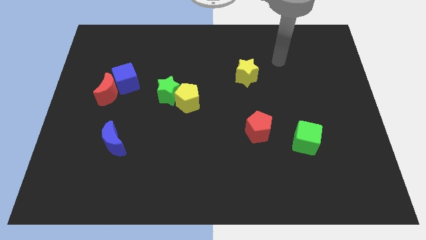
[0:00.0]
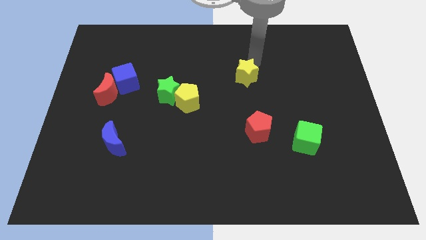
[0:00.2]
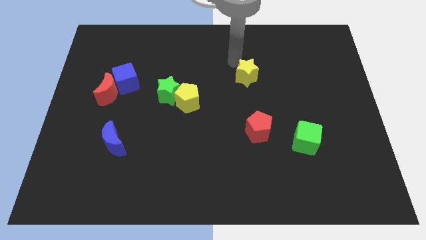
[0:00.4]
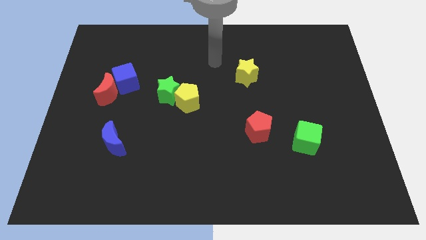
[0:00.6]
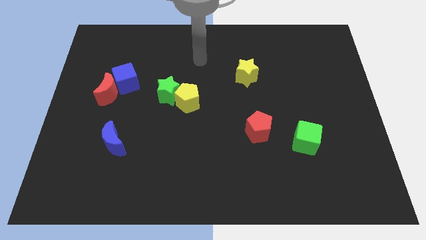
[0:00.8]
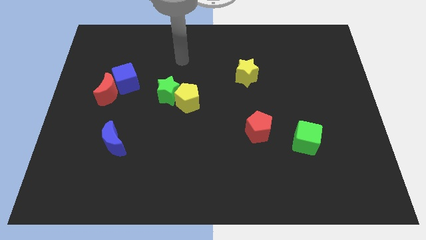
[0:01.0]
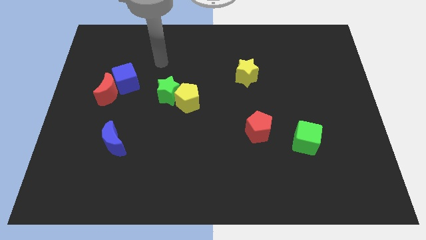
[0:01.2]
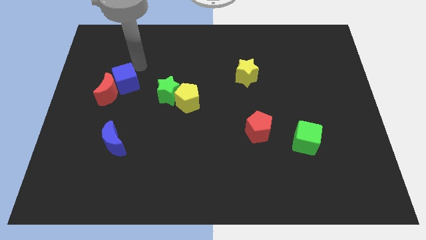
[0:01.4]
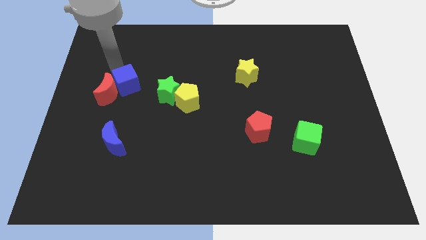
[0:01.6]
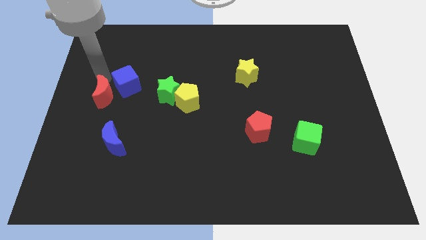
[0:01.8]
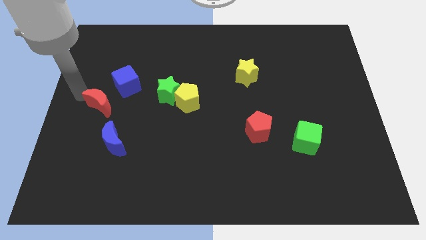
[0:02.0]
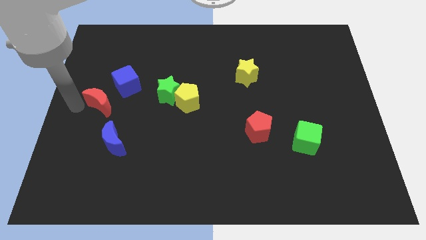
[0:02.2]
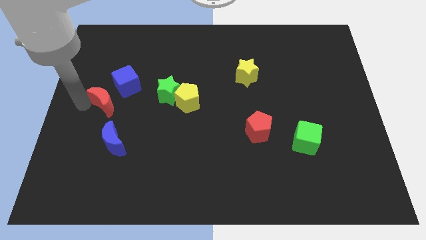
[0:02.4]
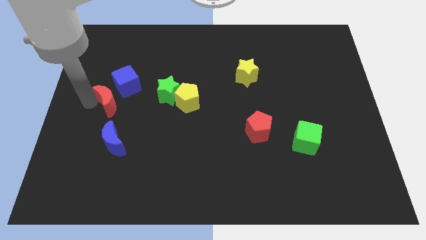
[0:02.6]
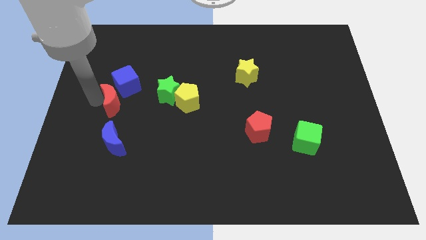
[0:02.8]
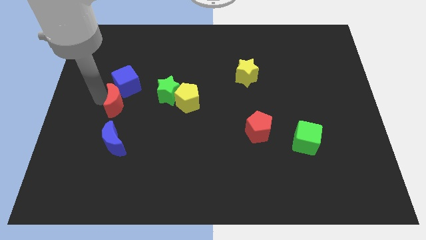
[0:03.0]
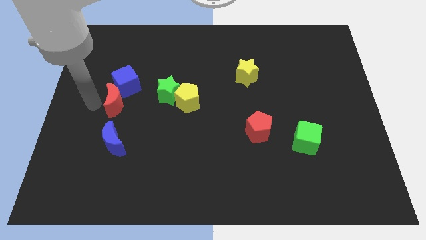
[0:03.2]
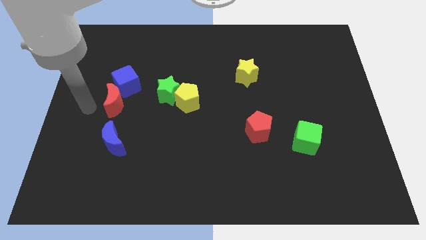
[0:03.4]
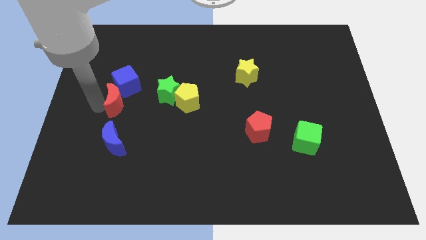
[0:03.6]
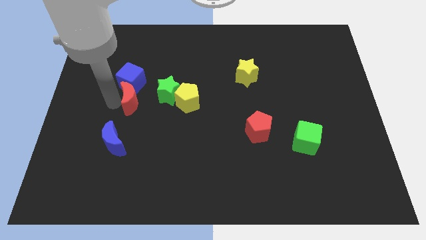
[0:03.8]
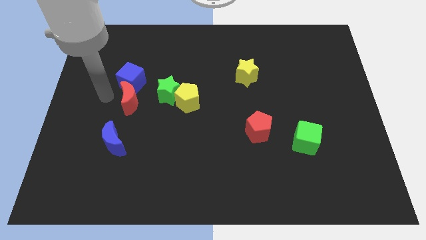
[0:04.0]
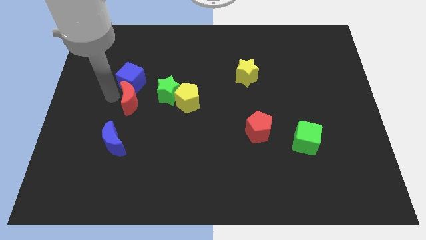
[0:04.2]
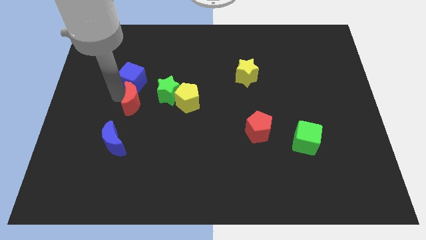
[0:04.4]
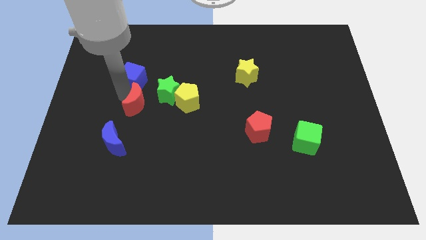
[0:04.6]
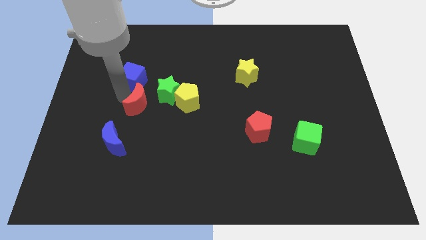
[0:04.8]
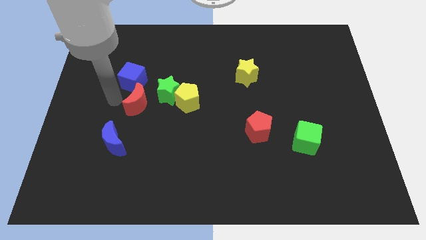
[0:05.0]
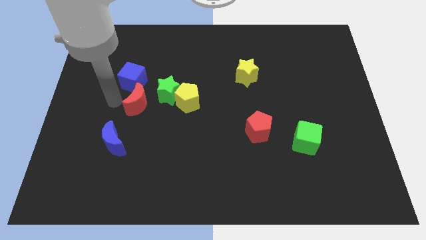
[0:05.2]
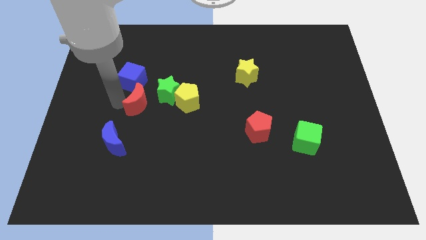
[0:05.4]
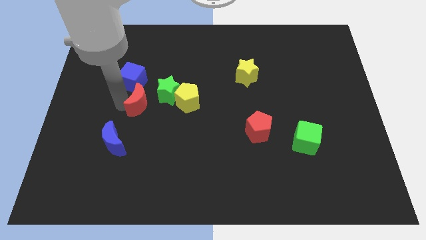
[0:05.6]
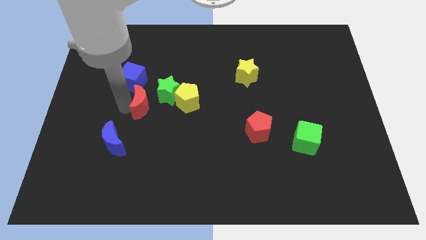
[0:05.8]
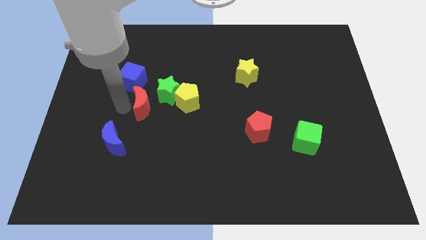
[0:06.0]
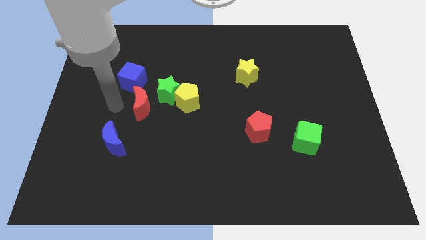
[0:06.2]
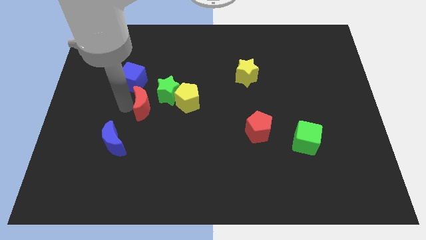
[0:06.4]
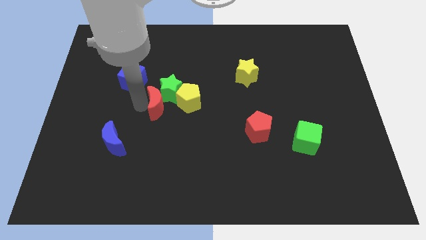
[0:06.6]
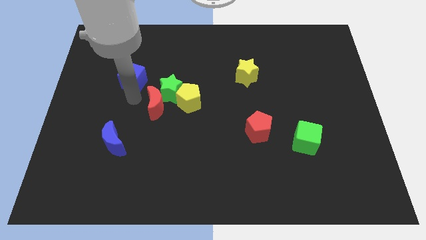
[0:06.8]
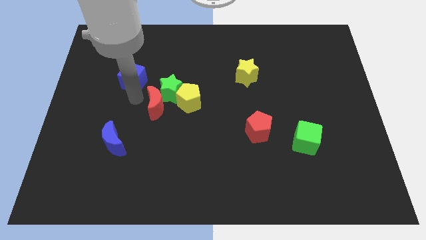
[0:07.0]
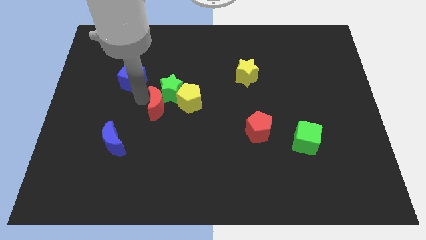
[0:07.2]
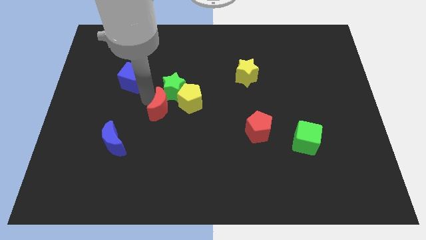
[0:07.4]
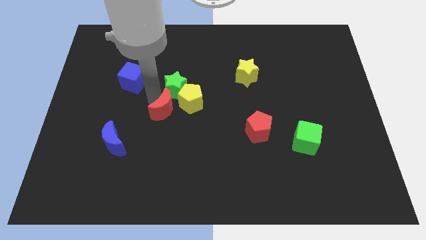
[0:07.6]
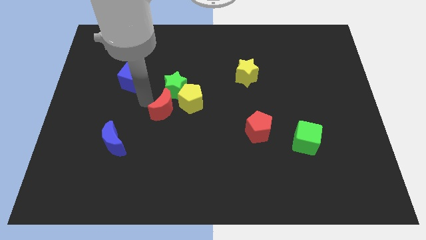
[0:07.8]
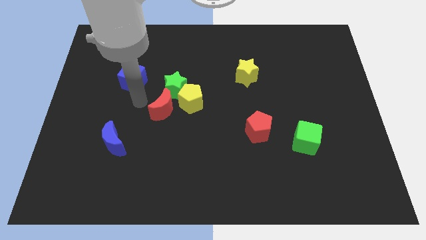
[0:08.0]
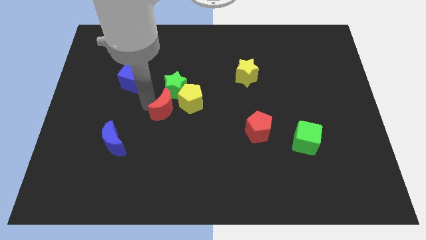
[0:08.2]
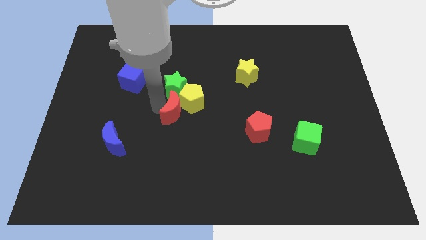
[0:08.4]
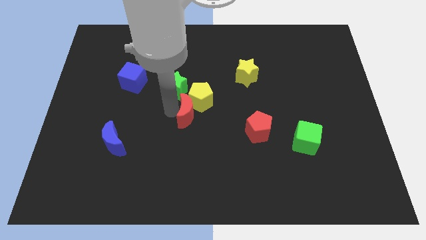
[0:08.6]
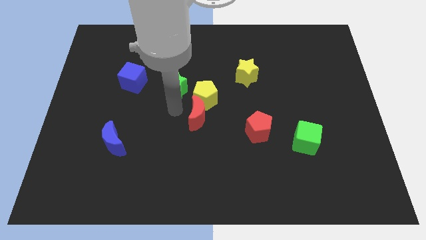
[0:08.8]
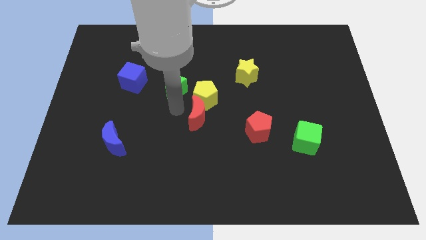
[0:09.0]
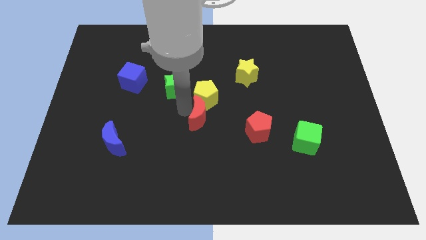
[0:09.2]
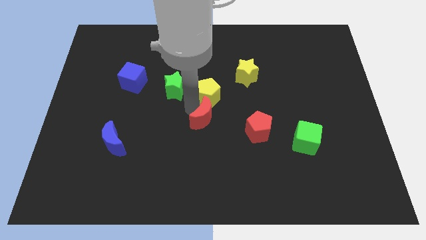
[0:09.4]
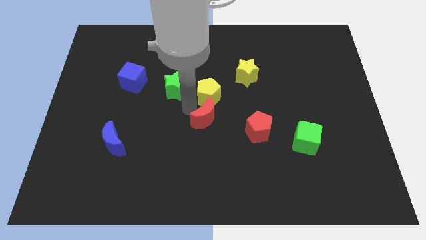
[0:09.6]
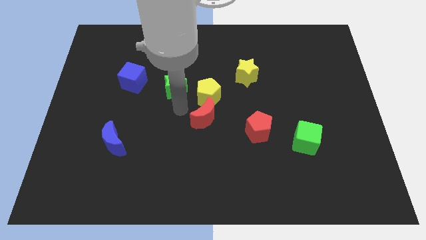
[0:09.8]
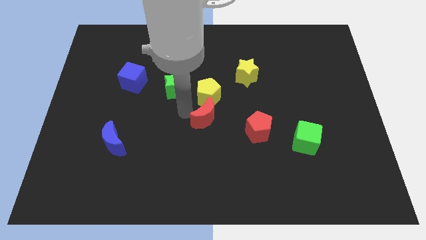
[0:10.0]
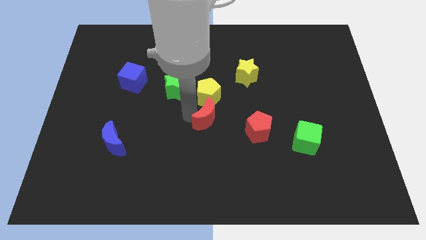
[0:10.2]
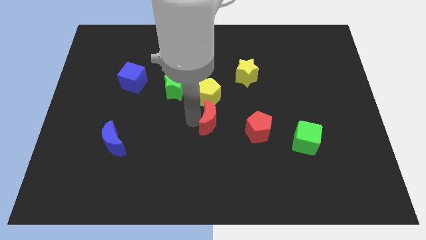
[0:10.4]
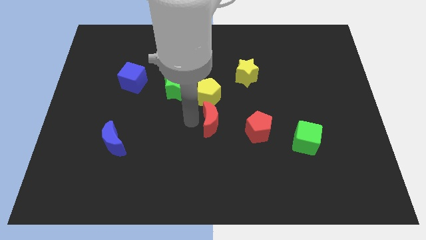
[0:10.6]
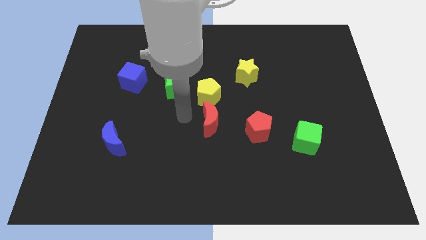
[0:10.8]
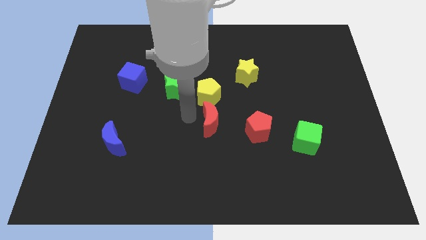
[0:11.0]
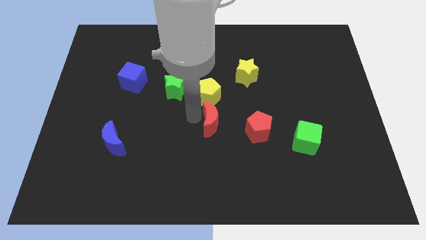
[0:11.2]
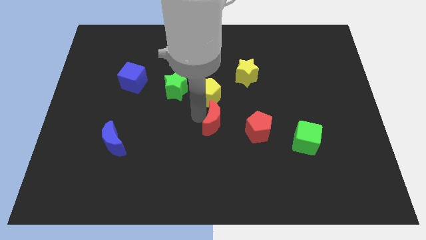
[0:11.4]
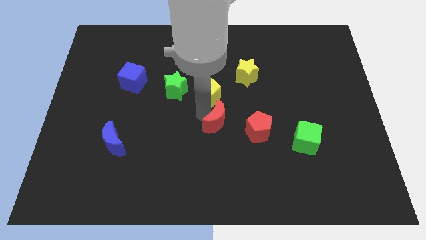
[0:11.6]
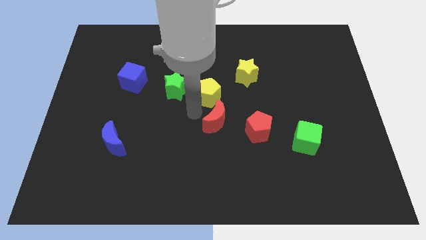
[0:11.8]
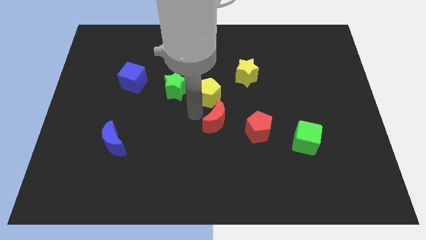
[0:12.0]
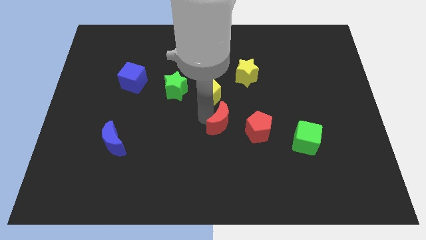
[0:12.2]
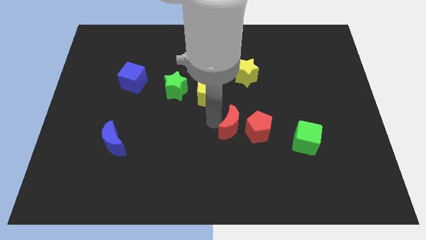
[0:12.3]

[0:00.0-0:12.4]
move the red moon to the red pentagon

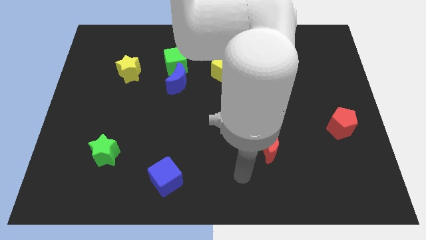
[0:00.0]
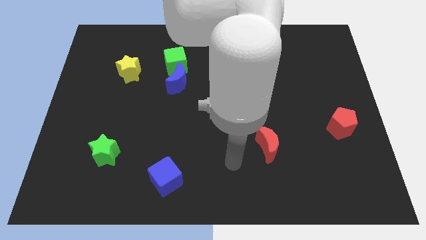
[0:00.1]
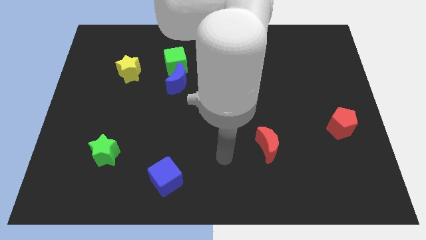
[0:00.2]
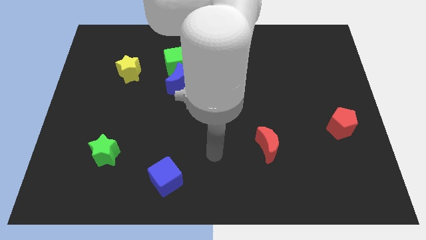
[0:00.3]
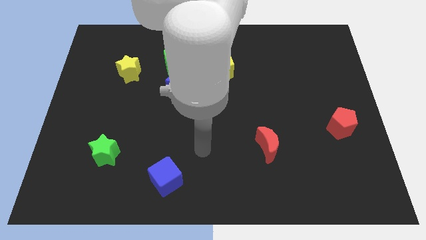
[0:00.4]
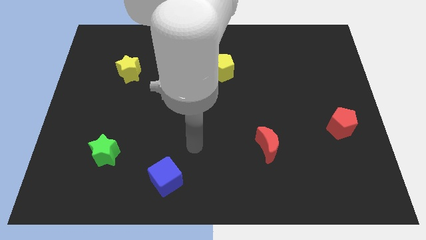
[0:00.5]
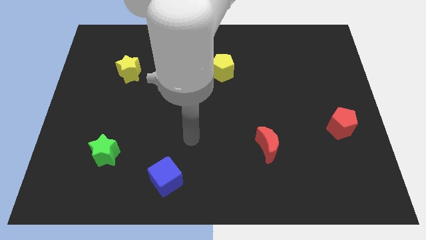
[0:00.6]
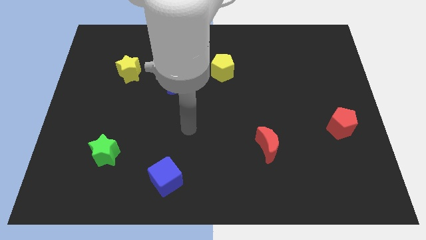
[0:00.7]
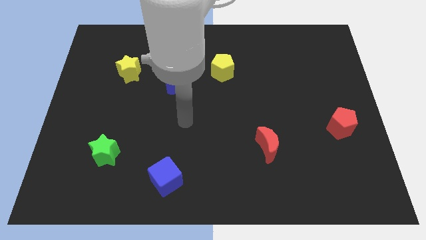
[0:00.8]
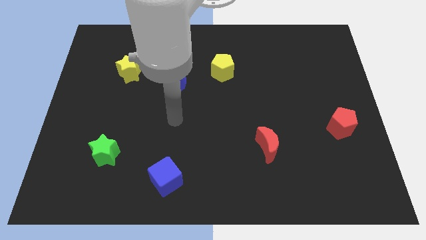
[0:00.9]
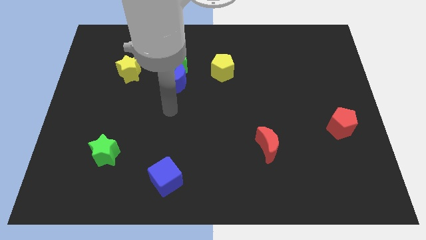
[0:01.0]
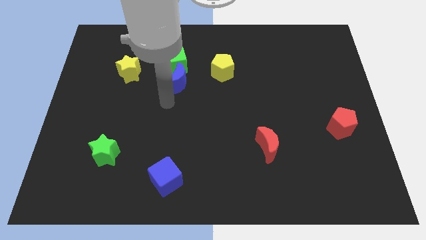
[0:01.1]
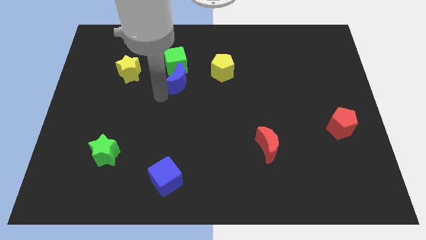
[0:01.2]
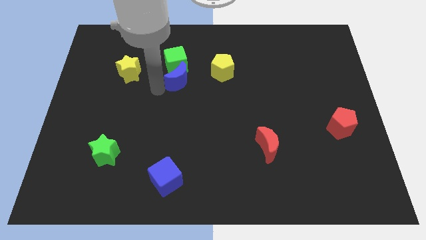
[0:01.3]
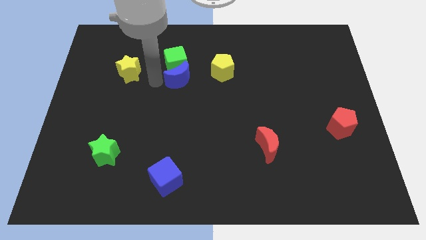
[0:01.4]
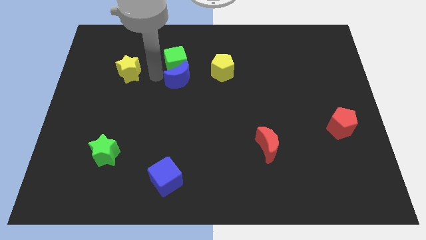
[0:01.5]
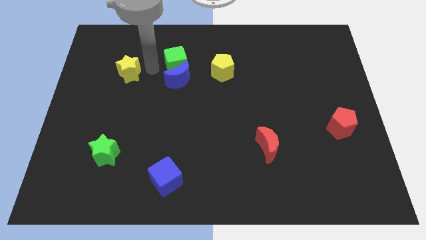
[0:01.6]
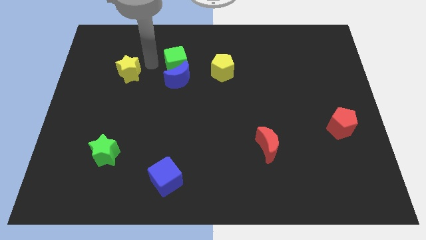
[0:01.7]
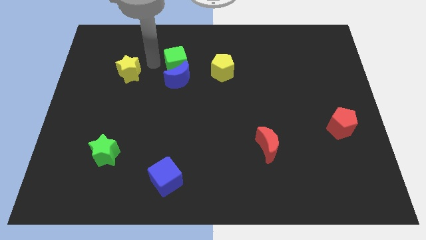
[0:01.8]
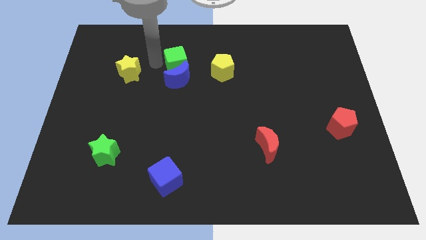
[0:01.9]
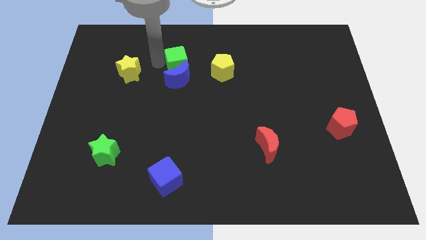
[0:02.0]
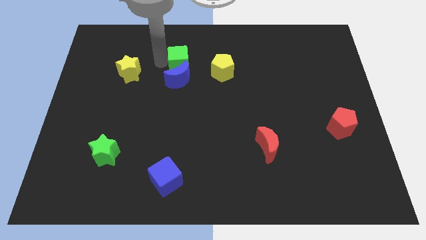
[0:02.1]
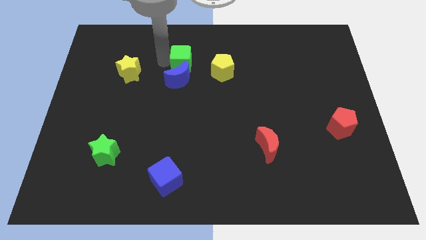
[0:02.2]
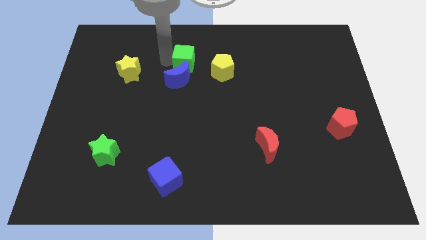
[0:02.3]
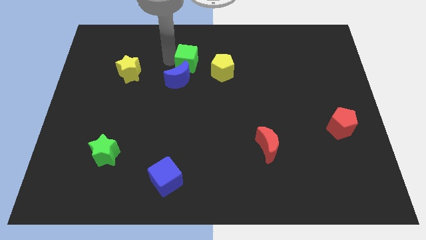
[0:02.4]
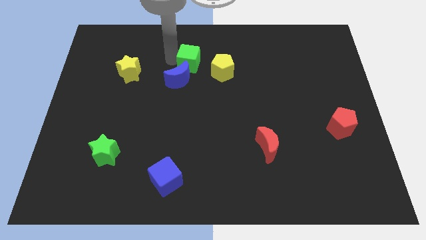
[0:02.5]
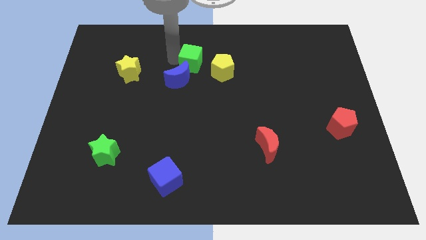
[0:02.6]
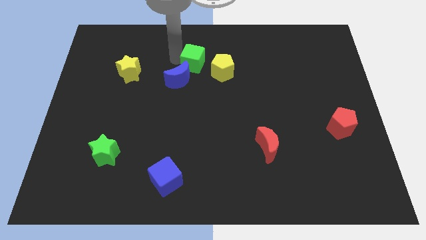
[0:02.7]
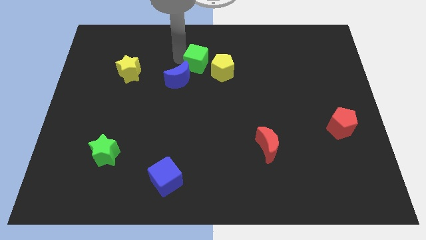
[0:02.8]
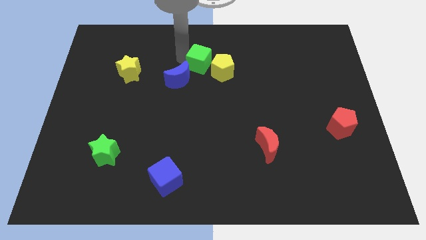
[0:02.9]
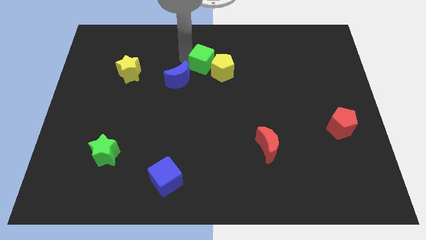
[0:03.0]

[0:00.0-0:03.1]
push the green cube close to the yellow pentagon
